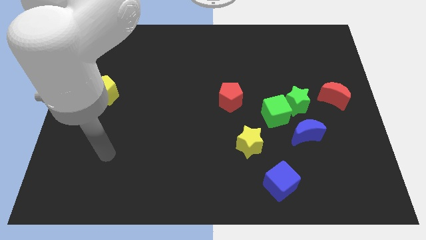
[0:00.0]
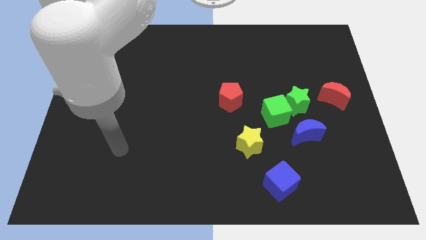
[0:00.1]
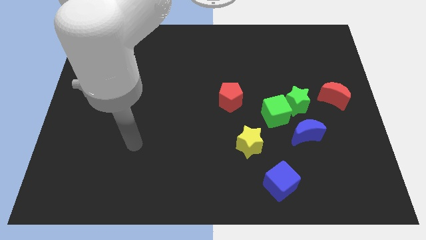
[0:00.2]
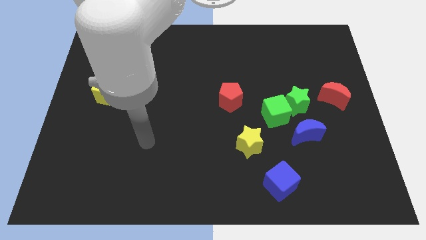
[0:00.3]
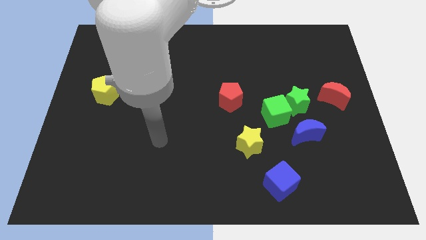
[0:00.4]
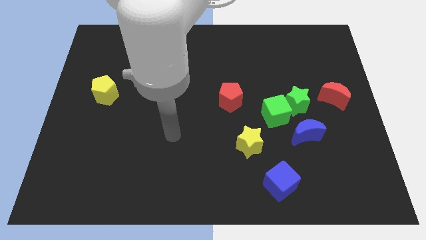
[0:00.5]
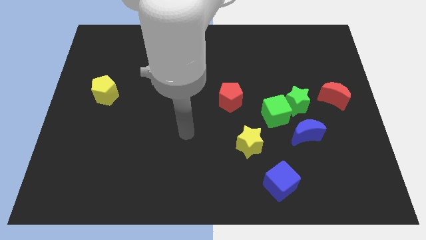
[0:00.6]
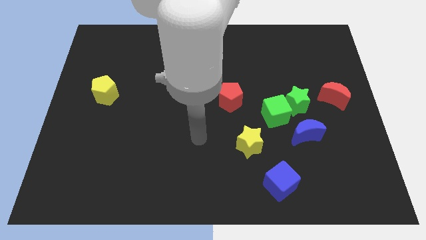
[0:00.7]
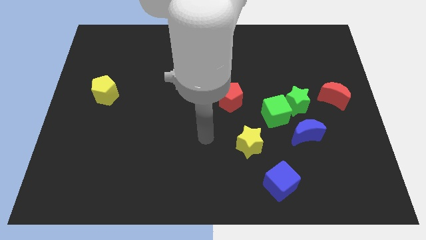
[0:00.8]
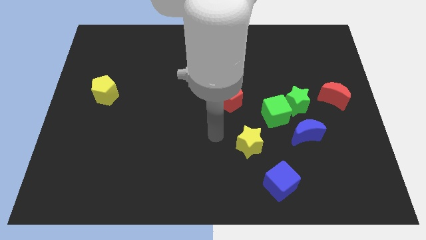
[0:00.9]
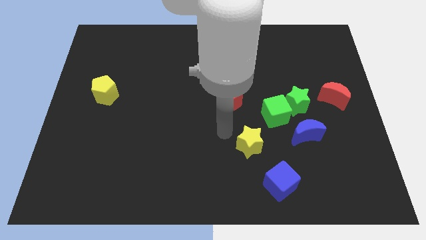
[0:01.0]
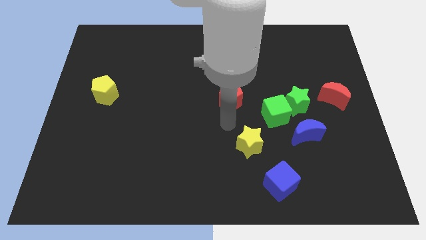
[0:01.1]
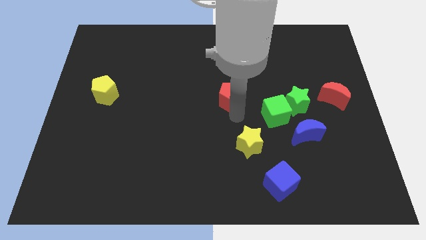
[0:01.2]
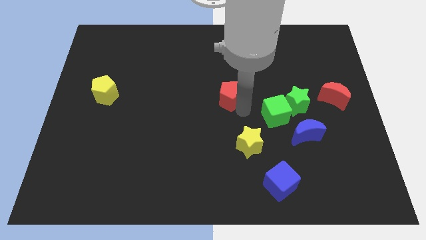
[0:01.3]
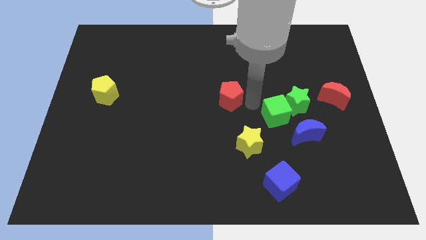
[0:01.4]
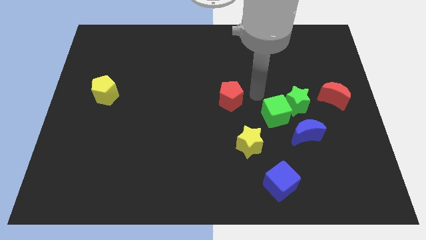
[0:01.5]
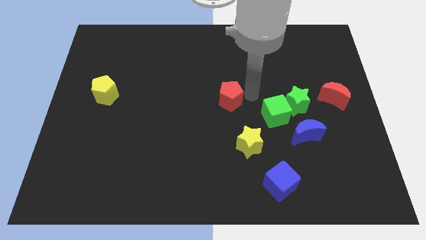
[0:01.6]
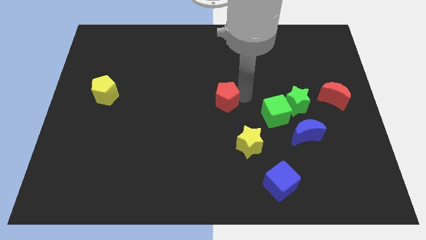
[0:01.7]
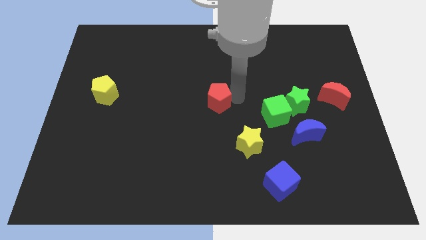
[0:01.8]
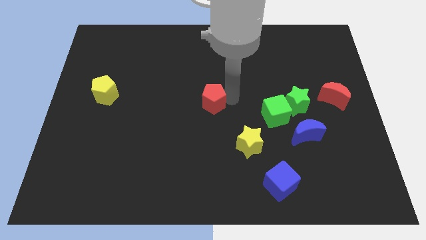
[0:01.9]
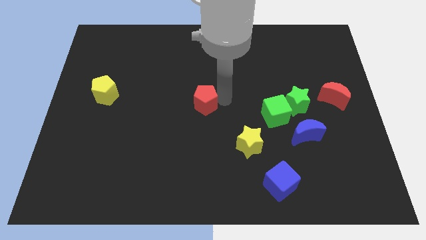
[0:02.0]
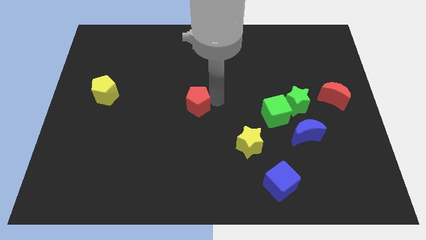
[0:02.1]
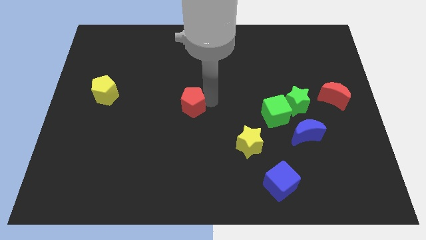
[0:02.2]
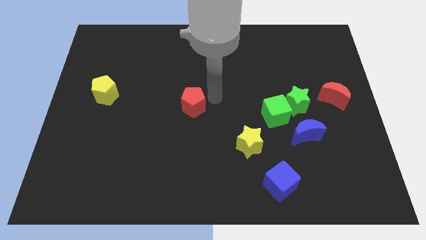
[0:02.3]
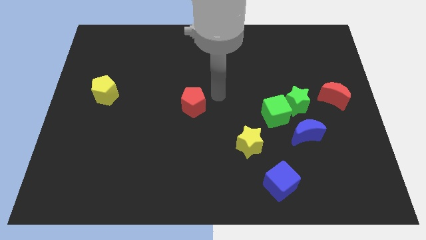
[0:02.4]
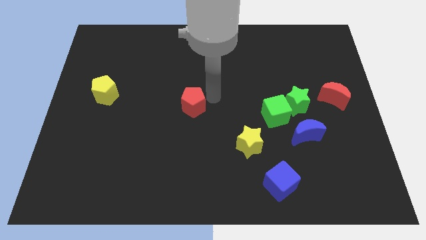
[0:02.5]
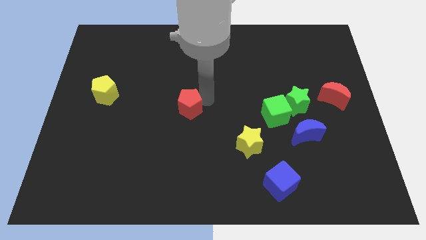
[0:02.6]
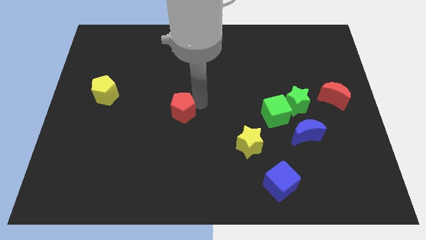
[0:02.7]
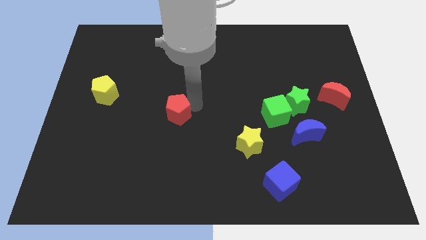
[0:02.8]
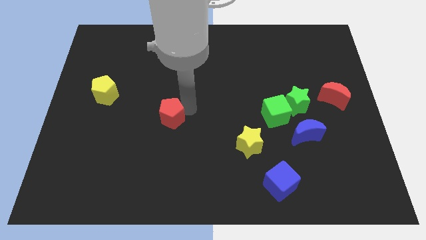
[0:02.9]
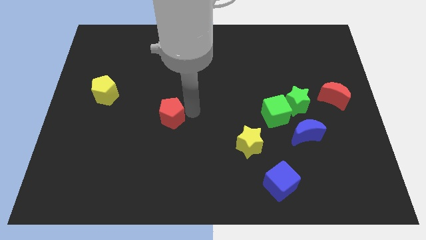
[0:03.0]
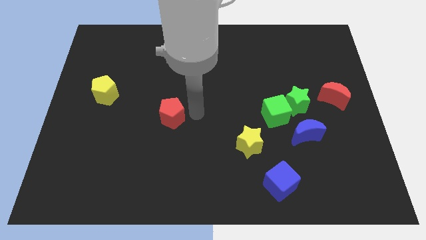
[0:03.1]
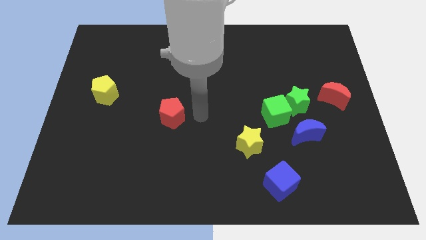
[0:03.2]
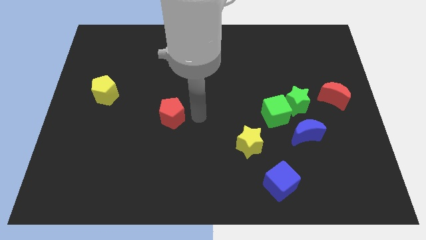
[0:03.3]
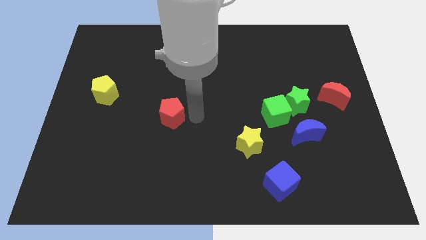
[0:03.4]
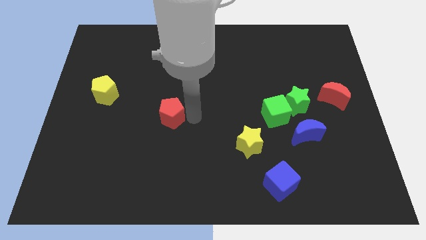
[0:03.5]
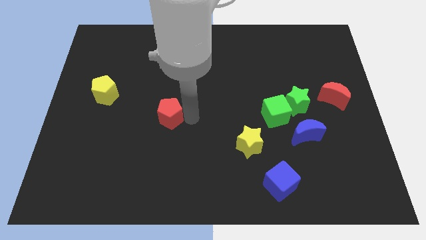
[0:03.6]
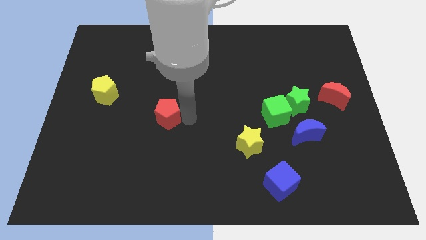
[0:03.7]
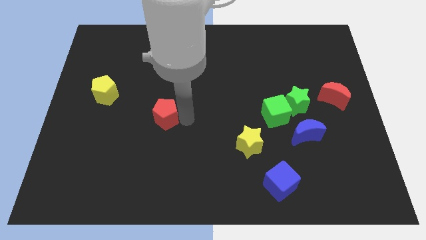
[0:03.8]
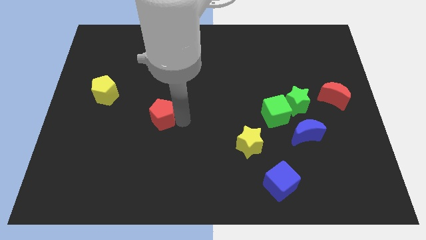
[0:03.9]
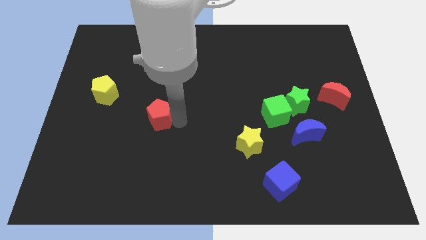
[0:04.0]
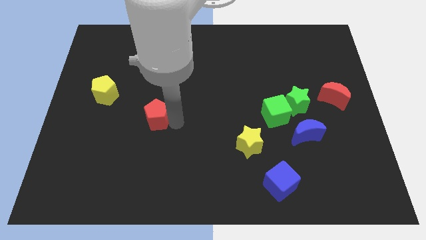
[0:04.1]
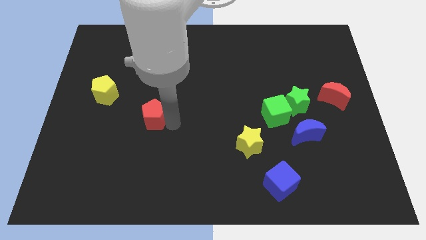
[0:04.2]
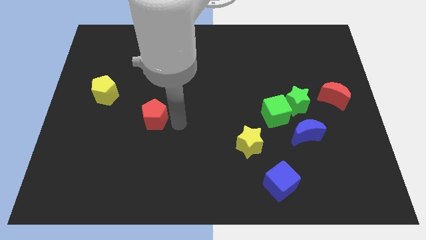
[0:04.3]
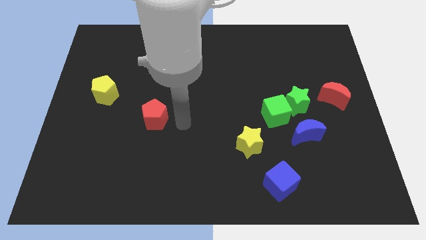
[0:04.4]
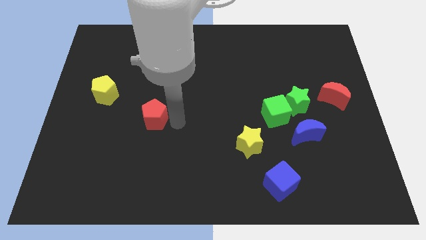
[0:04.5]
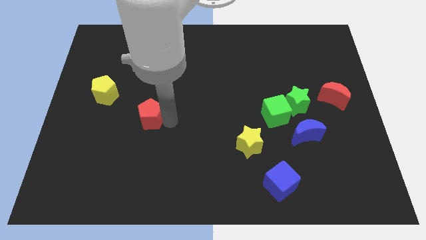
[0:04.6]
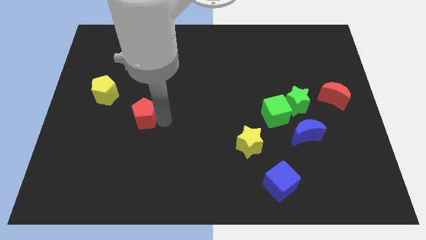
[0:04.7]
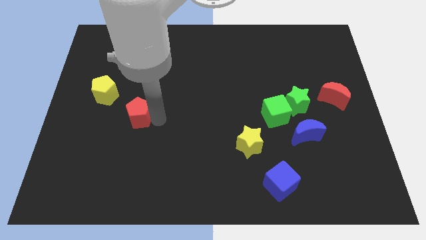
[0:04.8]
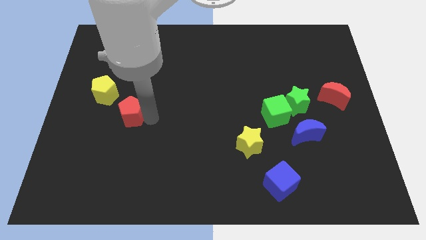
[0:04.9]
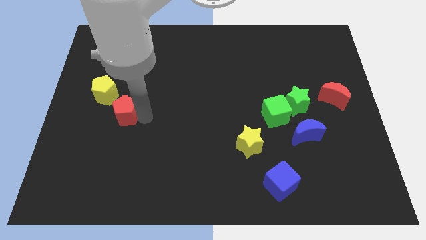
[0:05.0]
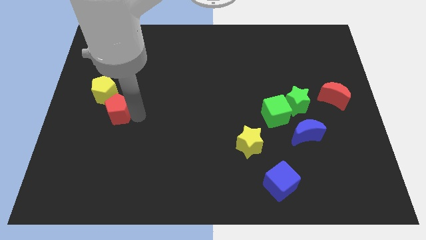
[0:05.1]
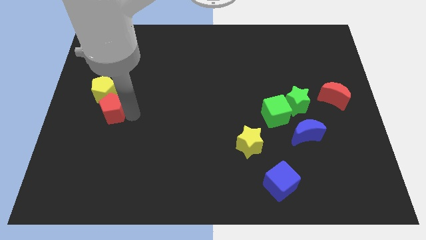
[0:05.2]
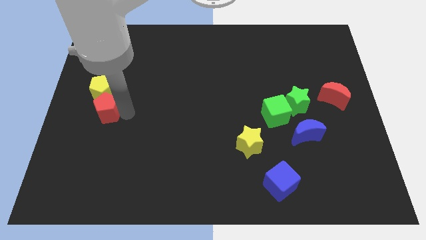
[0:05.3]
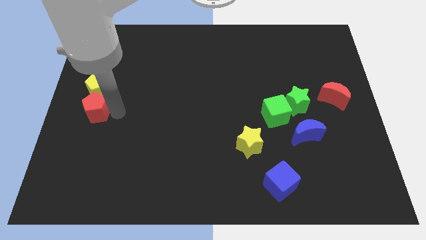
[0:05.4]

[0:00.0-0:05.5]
put the red pentagon to the center left

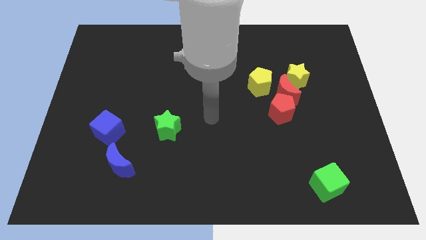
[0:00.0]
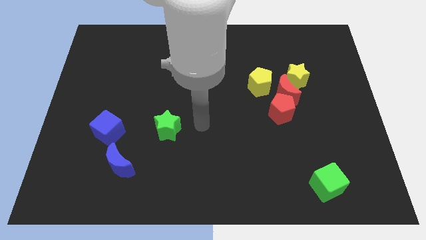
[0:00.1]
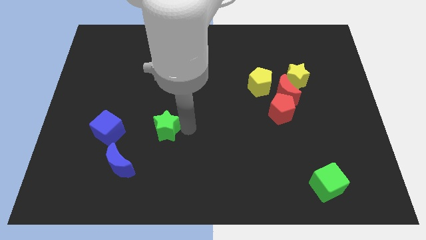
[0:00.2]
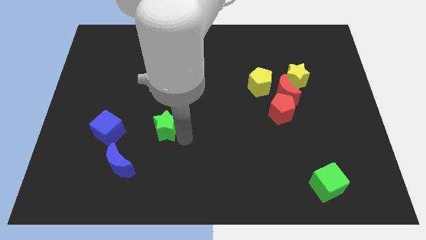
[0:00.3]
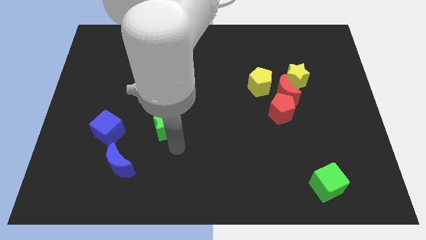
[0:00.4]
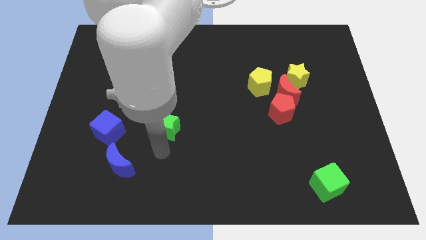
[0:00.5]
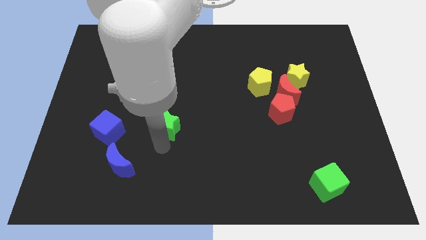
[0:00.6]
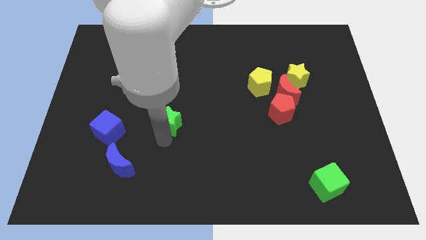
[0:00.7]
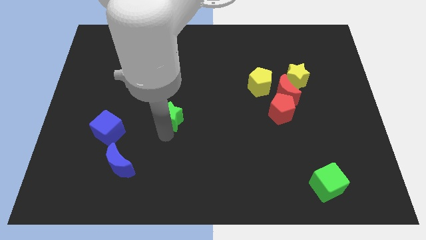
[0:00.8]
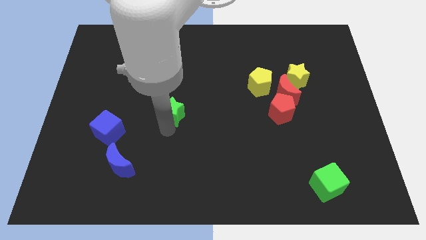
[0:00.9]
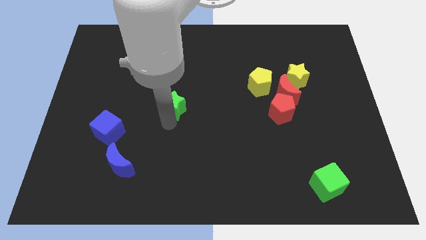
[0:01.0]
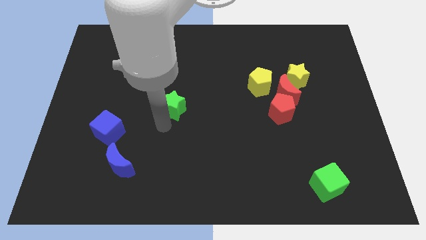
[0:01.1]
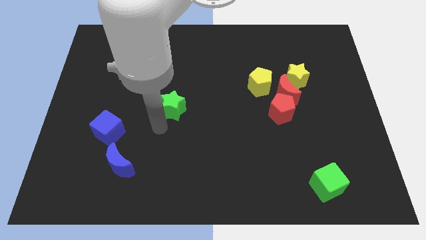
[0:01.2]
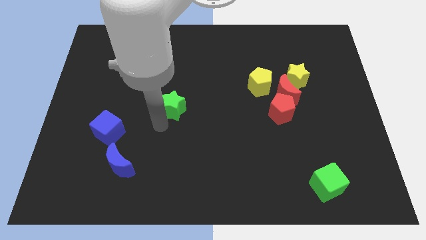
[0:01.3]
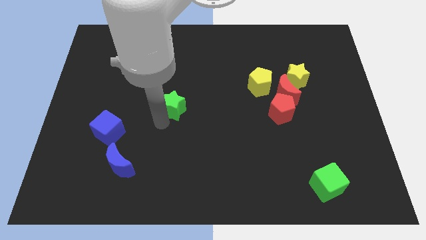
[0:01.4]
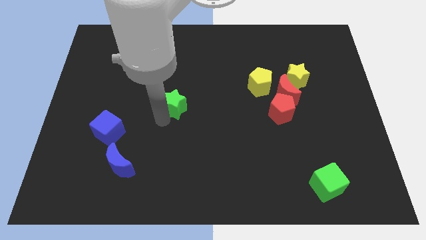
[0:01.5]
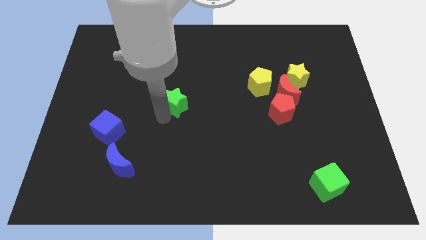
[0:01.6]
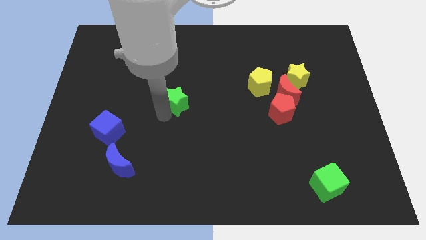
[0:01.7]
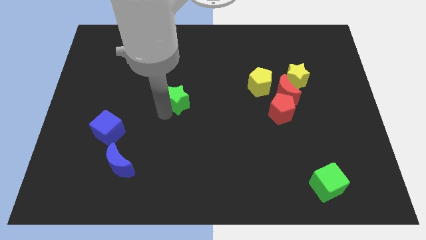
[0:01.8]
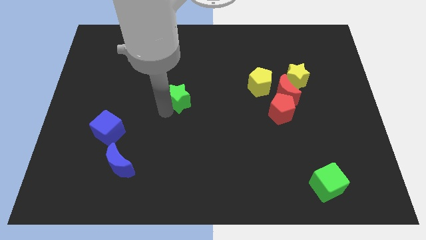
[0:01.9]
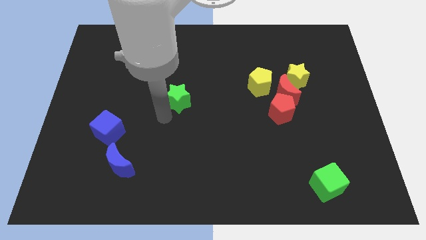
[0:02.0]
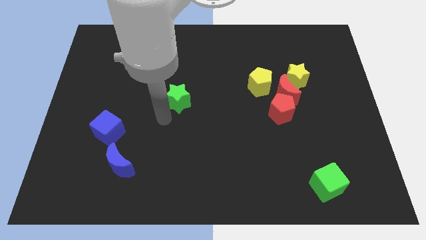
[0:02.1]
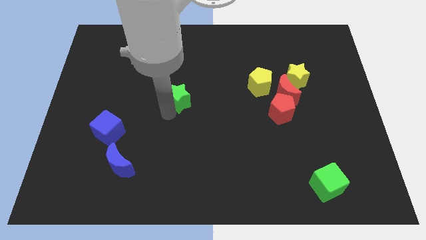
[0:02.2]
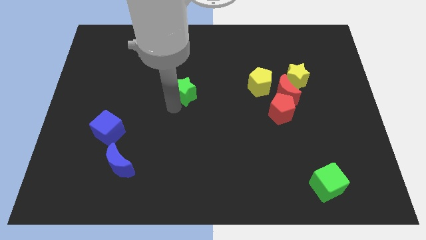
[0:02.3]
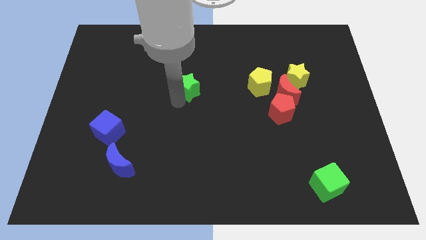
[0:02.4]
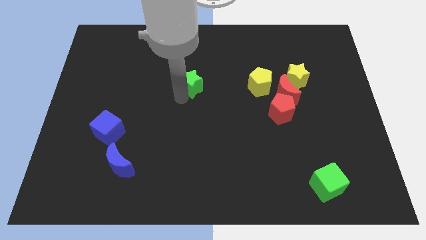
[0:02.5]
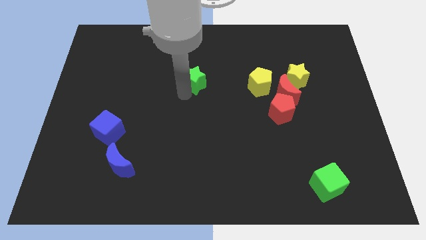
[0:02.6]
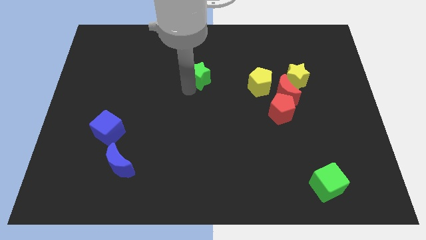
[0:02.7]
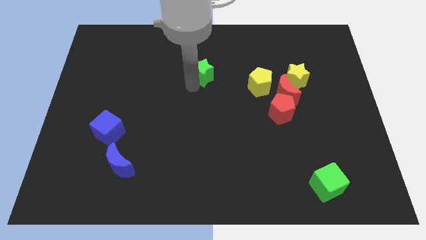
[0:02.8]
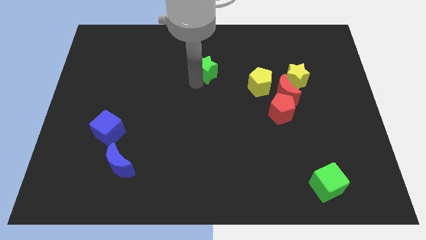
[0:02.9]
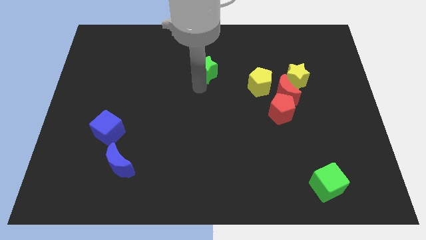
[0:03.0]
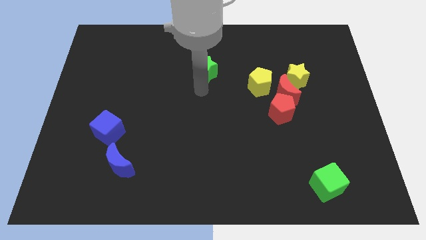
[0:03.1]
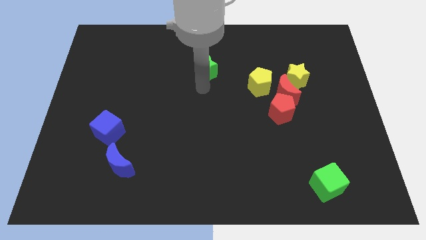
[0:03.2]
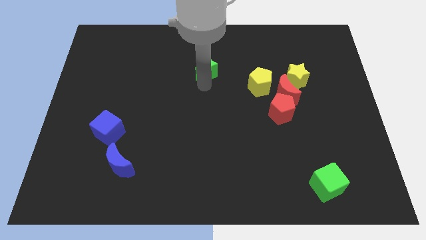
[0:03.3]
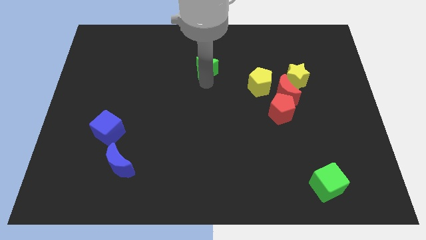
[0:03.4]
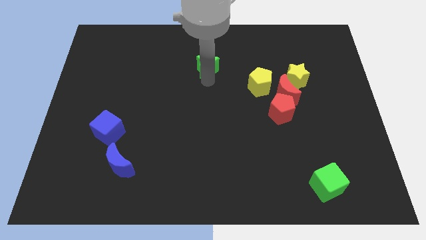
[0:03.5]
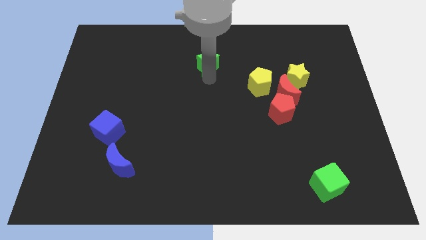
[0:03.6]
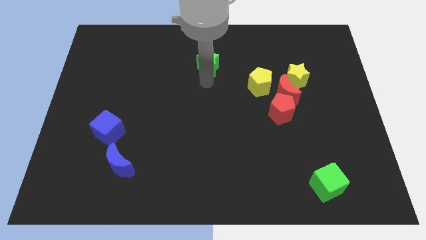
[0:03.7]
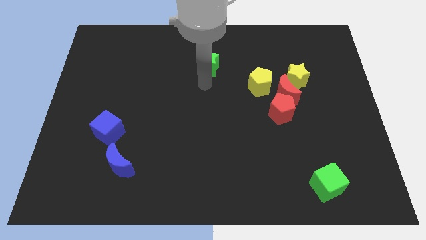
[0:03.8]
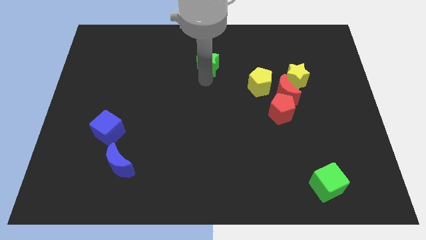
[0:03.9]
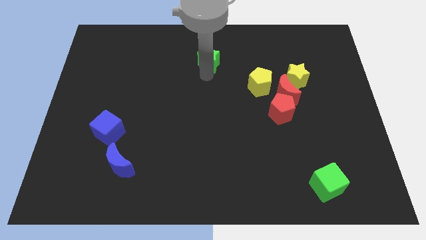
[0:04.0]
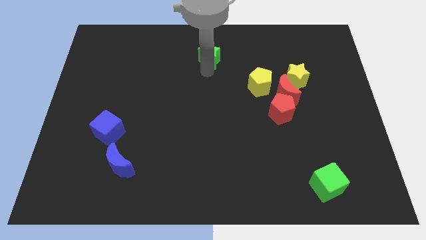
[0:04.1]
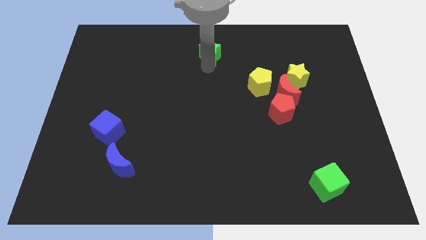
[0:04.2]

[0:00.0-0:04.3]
slide the green star to the towards your base
